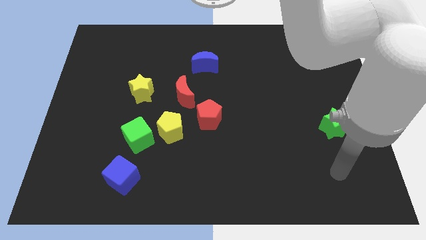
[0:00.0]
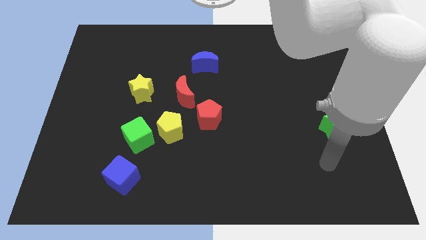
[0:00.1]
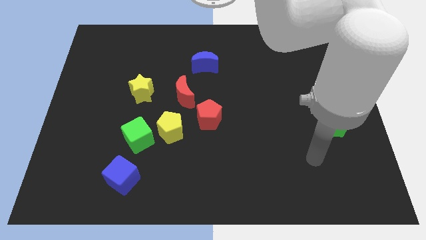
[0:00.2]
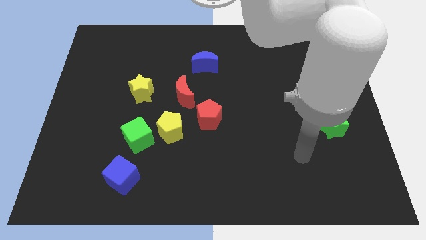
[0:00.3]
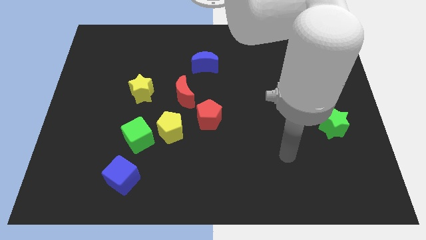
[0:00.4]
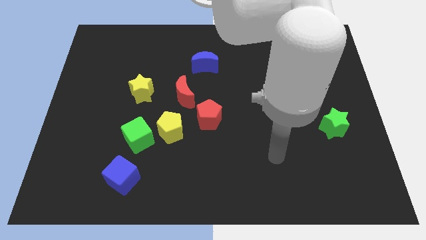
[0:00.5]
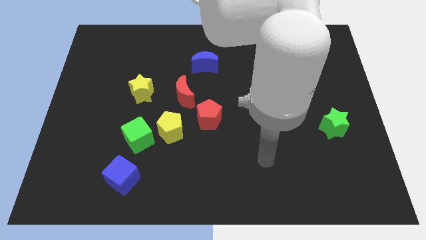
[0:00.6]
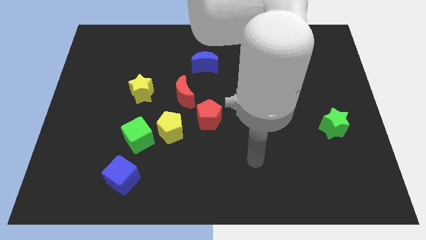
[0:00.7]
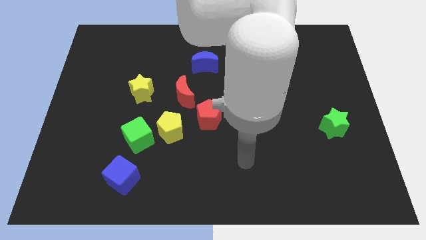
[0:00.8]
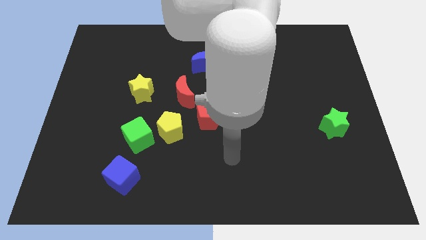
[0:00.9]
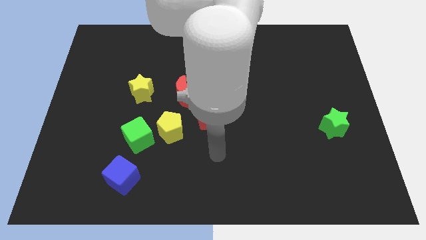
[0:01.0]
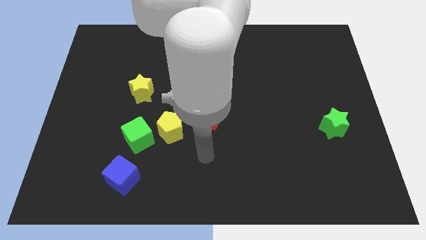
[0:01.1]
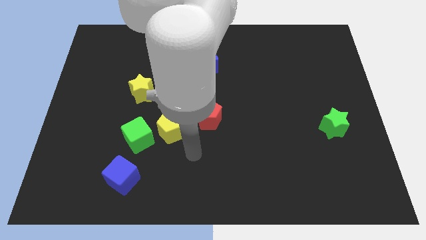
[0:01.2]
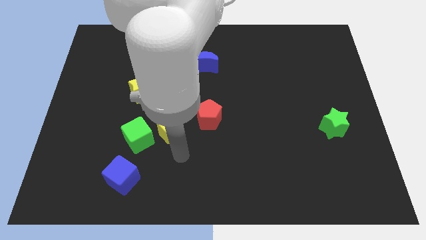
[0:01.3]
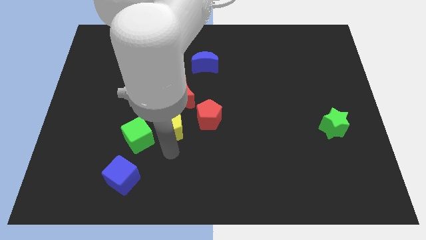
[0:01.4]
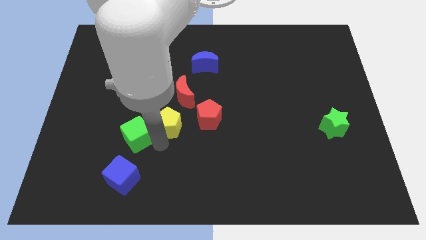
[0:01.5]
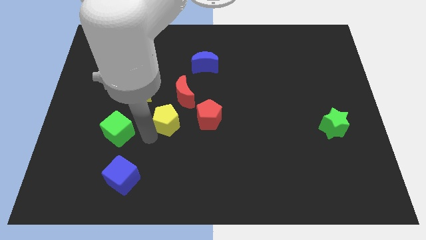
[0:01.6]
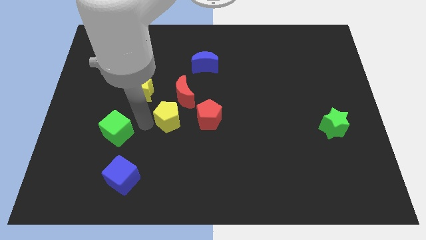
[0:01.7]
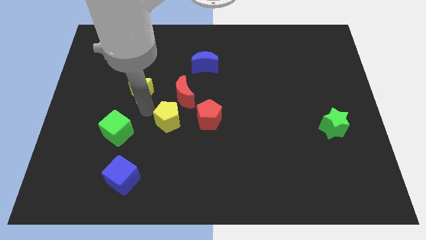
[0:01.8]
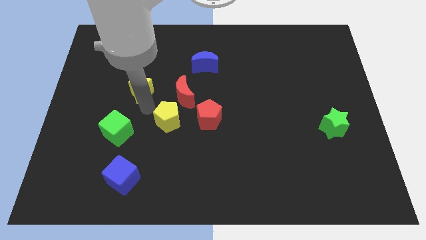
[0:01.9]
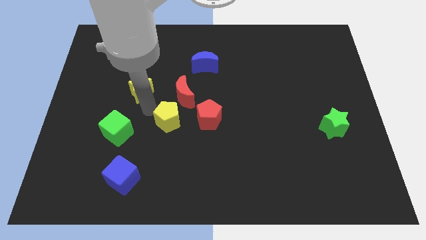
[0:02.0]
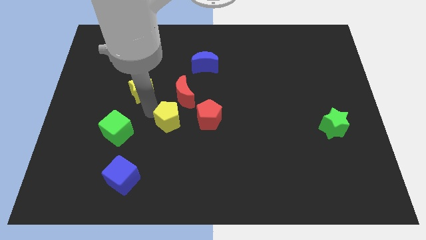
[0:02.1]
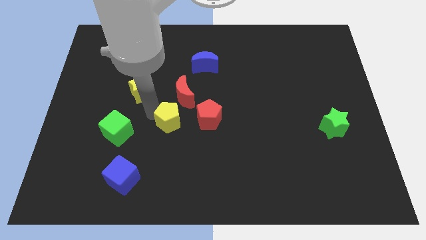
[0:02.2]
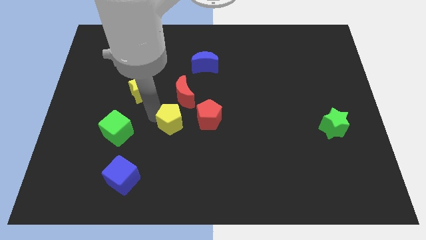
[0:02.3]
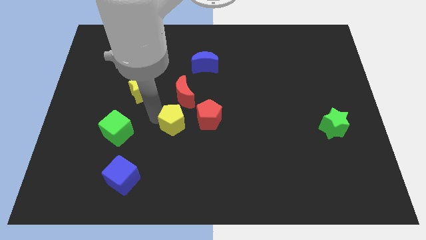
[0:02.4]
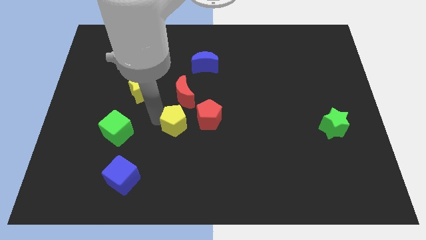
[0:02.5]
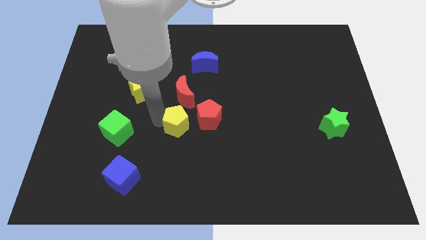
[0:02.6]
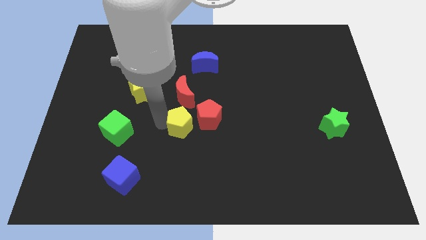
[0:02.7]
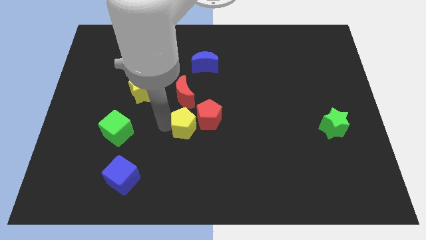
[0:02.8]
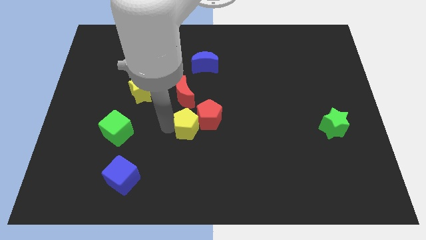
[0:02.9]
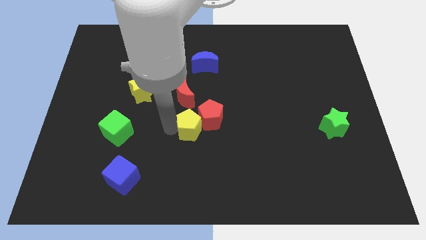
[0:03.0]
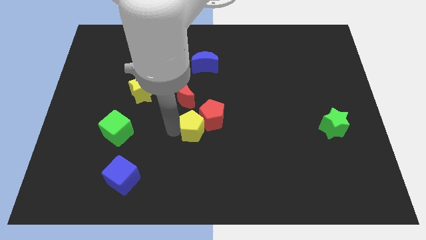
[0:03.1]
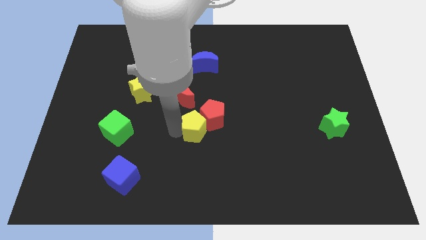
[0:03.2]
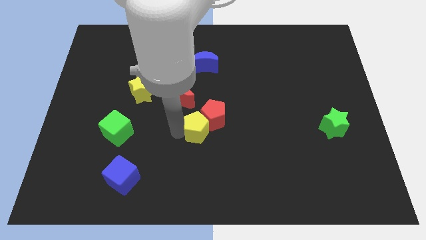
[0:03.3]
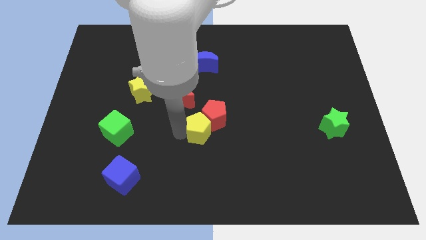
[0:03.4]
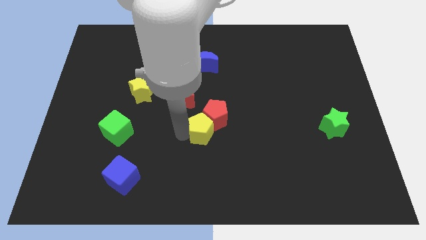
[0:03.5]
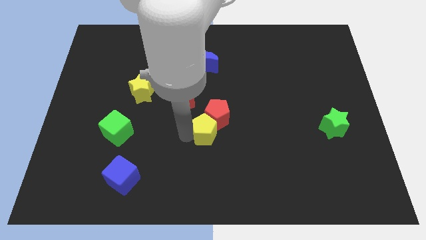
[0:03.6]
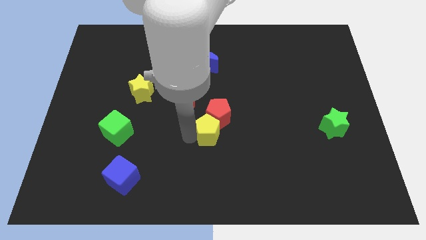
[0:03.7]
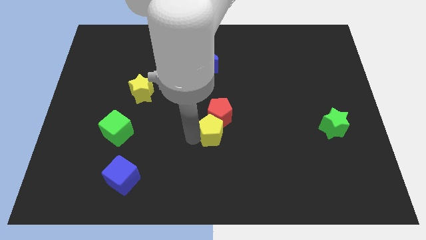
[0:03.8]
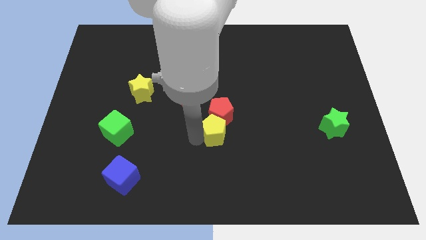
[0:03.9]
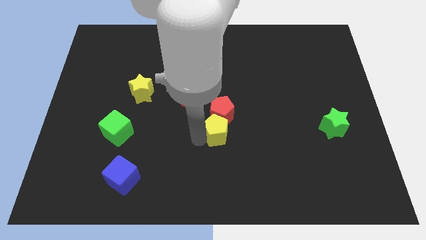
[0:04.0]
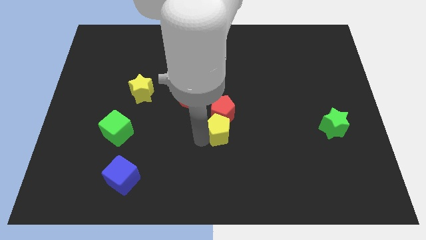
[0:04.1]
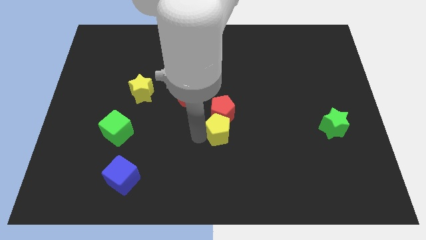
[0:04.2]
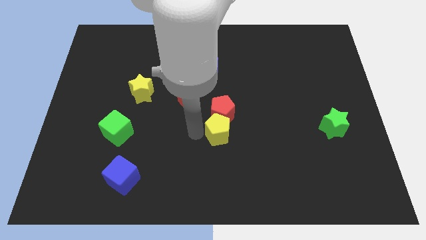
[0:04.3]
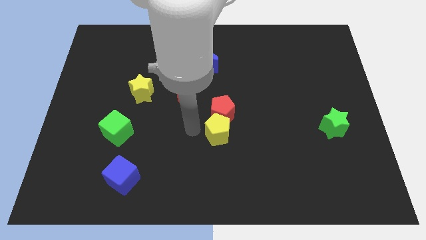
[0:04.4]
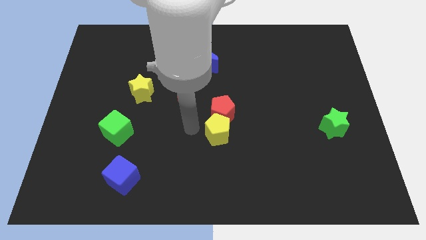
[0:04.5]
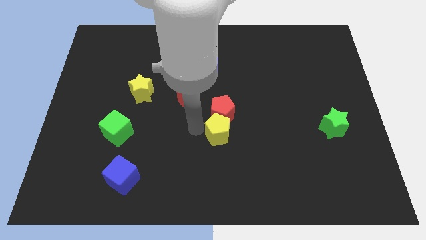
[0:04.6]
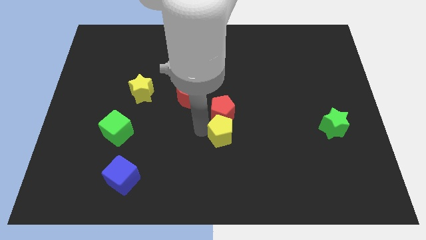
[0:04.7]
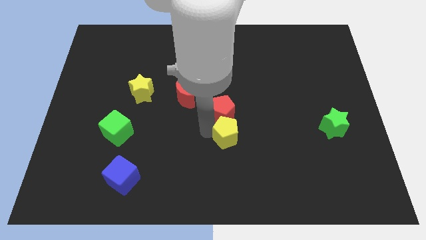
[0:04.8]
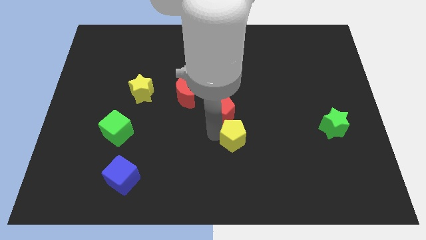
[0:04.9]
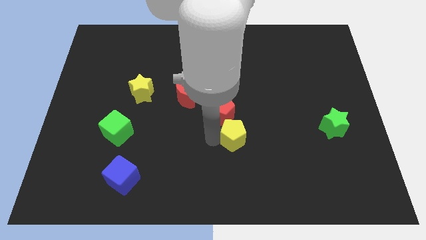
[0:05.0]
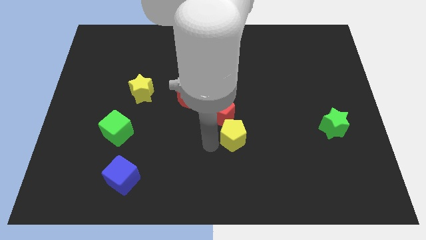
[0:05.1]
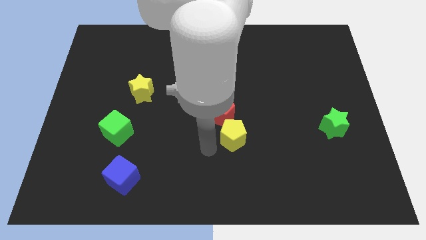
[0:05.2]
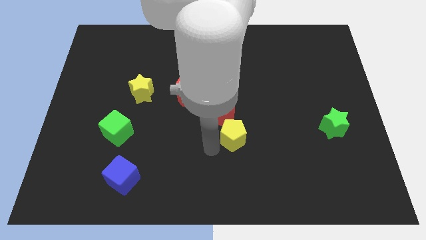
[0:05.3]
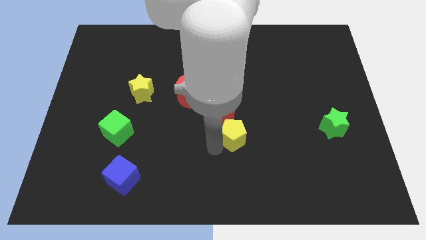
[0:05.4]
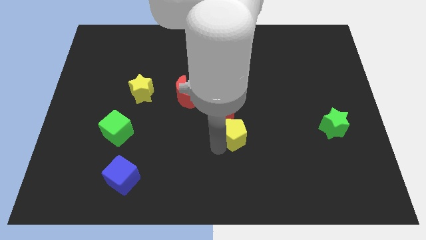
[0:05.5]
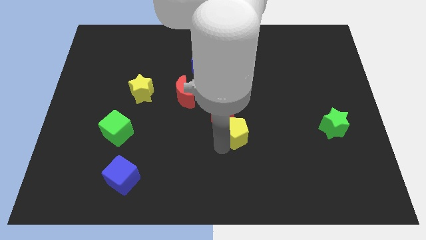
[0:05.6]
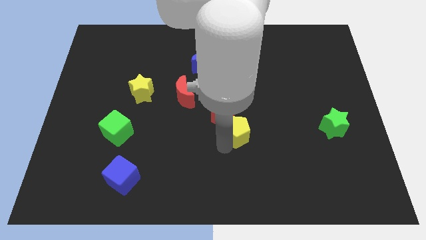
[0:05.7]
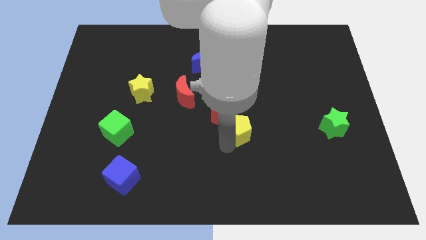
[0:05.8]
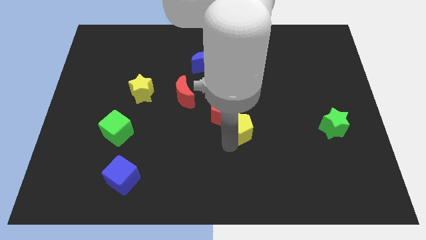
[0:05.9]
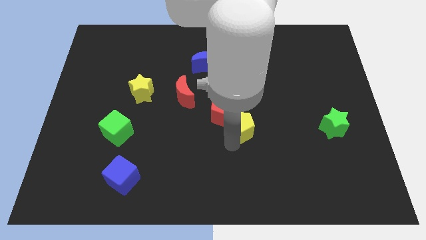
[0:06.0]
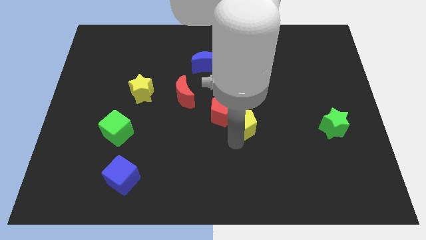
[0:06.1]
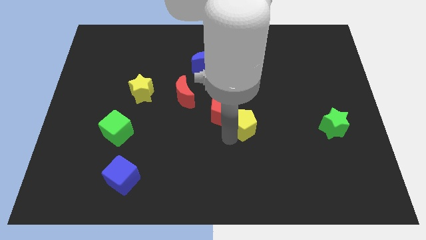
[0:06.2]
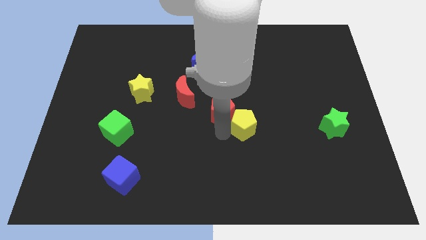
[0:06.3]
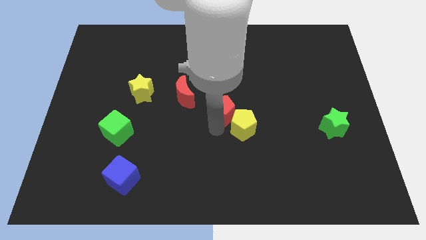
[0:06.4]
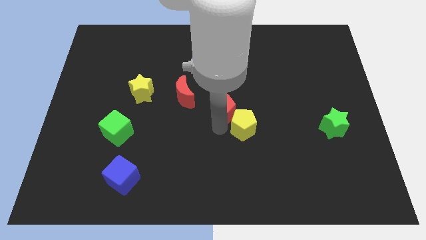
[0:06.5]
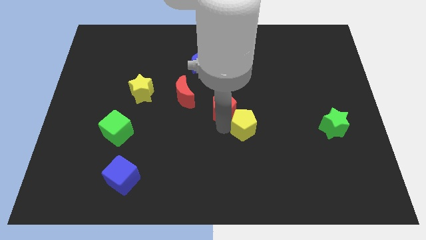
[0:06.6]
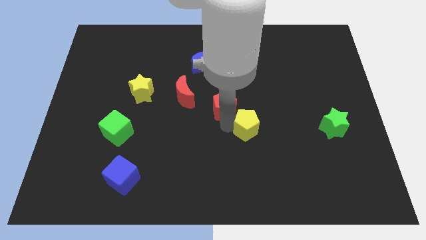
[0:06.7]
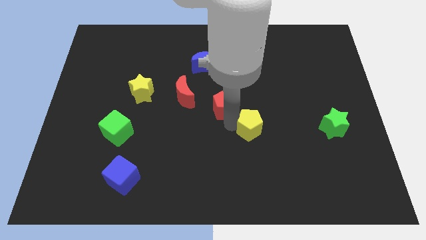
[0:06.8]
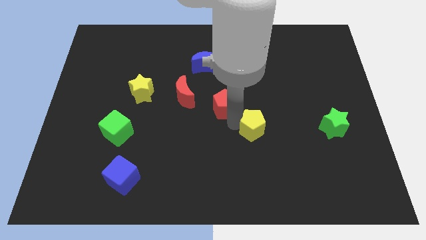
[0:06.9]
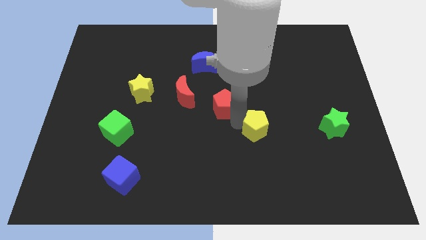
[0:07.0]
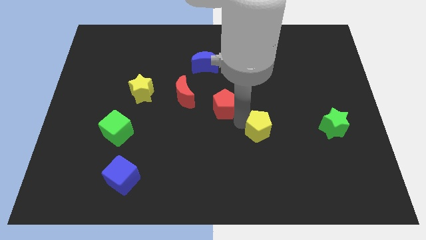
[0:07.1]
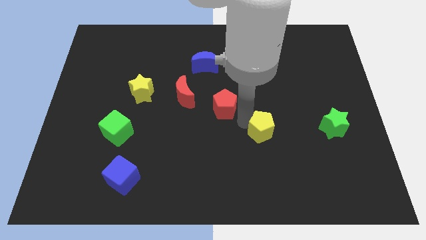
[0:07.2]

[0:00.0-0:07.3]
push the yellow pentagon right

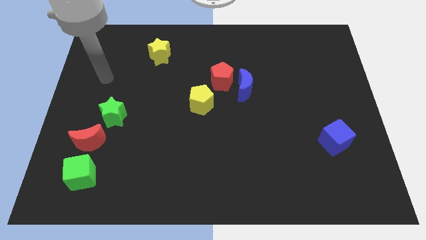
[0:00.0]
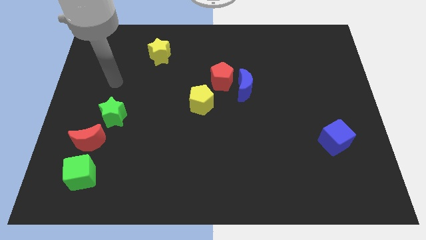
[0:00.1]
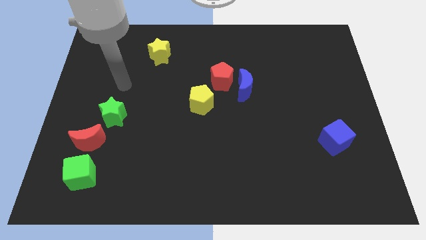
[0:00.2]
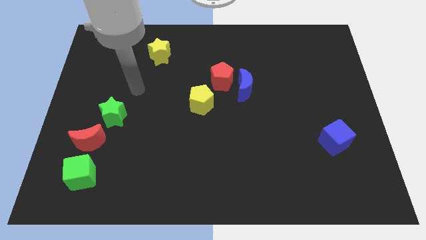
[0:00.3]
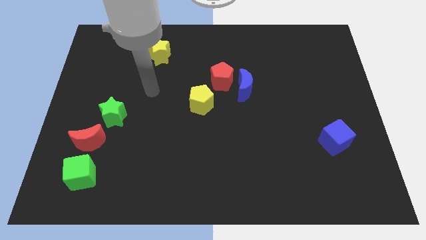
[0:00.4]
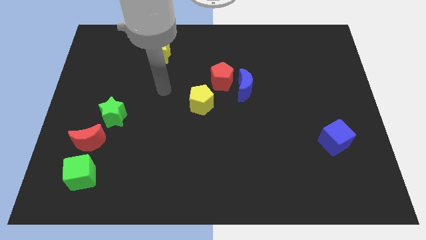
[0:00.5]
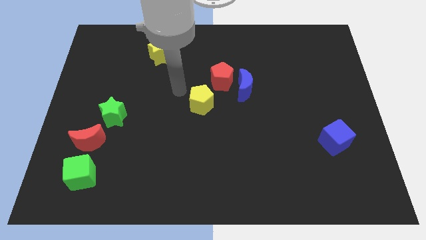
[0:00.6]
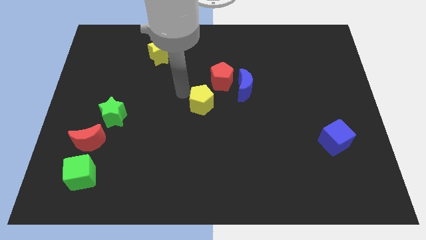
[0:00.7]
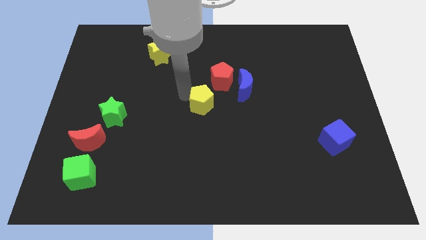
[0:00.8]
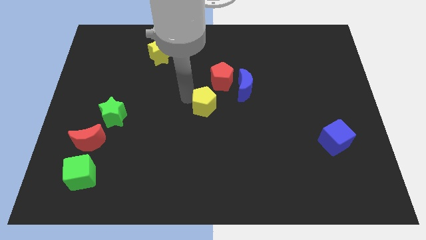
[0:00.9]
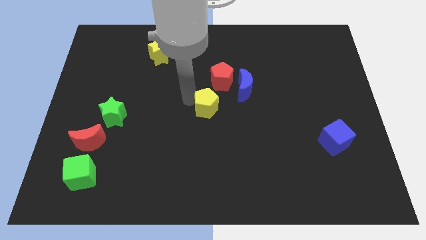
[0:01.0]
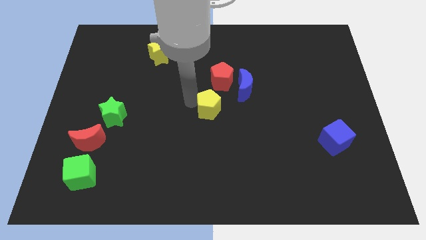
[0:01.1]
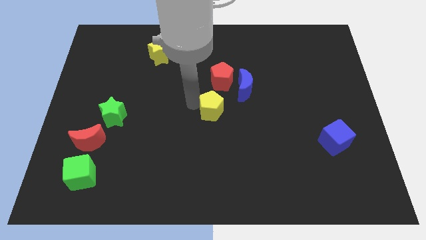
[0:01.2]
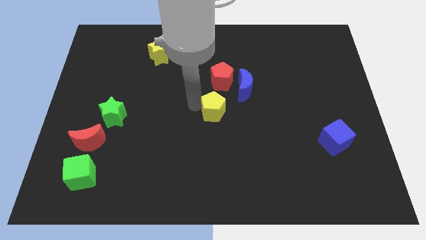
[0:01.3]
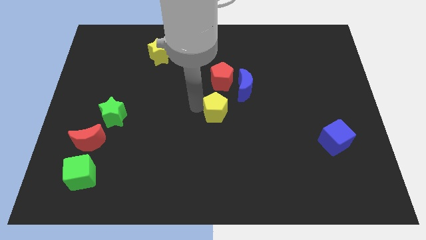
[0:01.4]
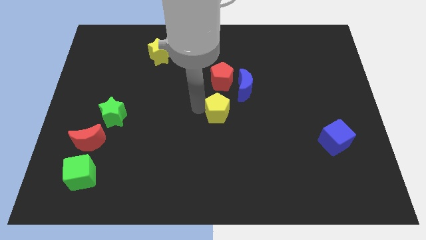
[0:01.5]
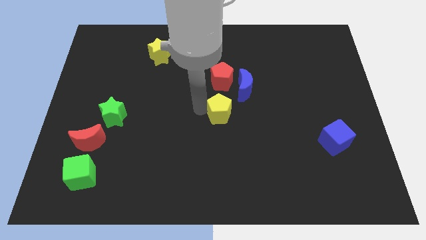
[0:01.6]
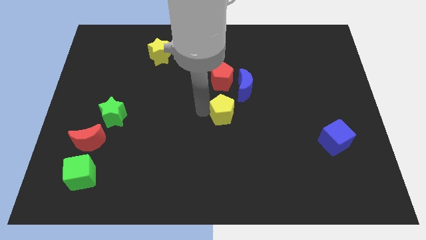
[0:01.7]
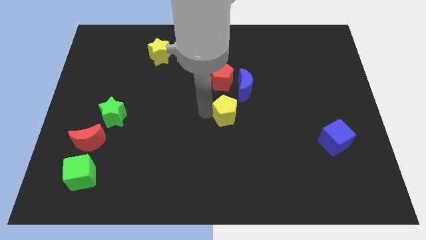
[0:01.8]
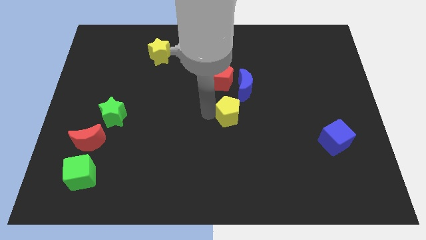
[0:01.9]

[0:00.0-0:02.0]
push the yellow pentagon diagonally down and to the right somewhat
